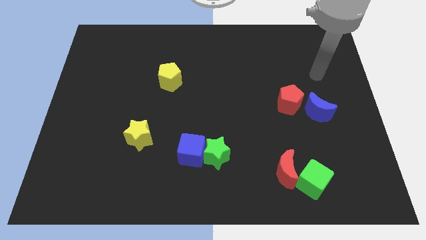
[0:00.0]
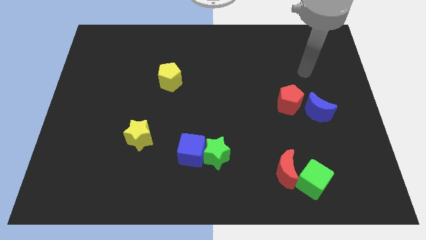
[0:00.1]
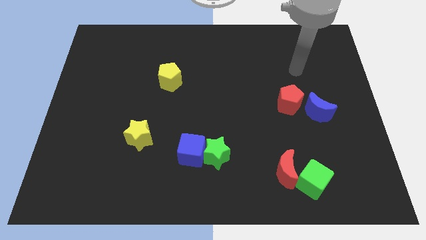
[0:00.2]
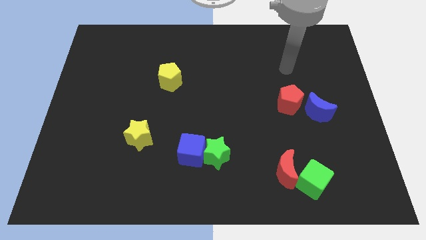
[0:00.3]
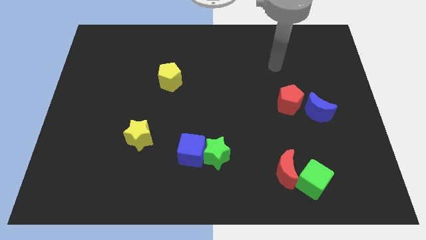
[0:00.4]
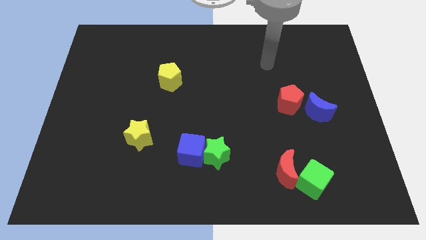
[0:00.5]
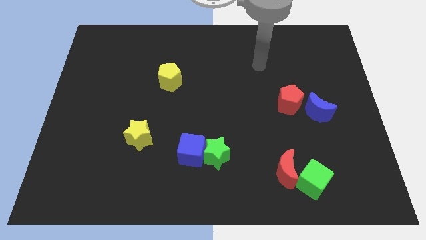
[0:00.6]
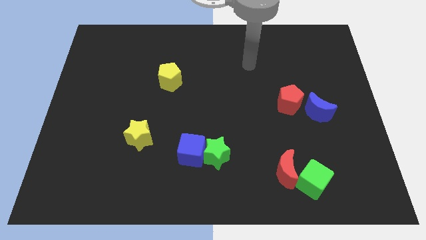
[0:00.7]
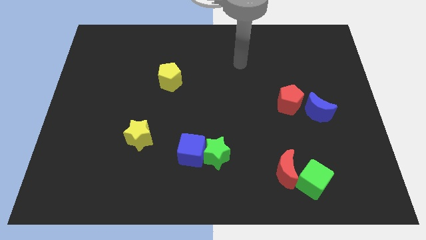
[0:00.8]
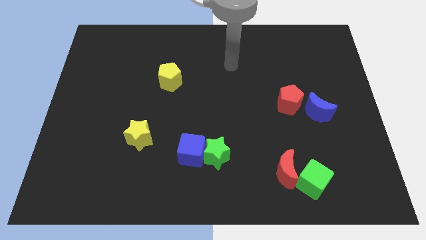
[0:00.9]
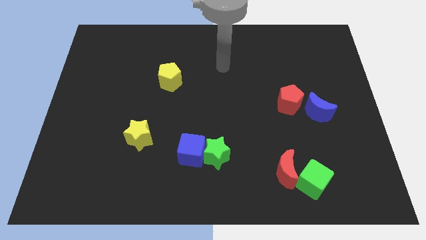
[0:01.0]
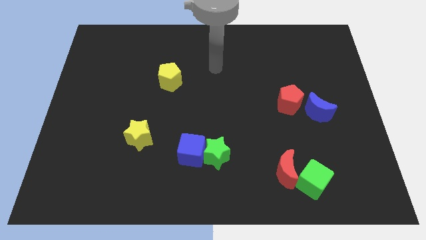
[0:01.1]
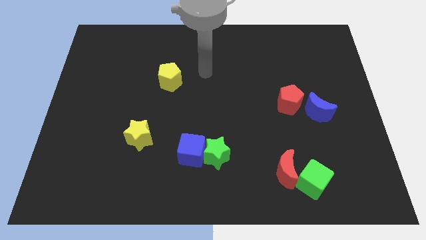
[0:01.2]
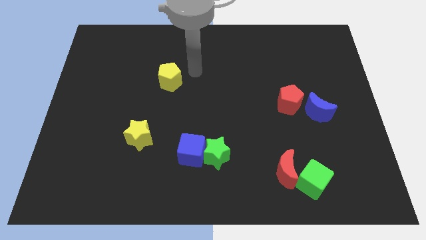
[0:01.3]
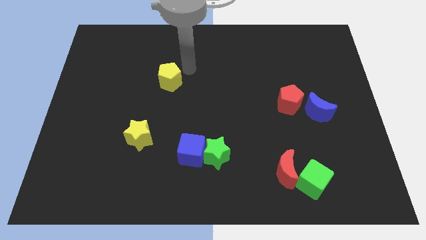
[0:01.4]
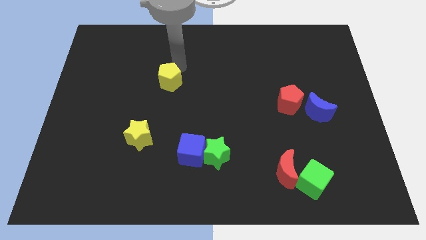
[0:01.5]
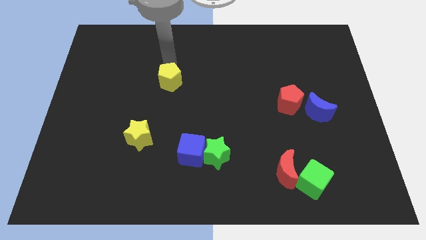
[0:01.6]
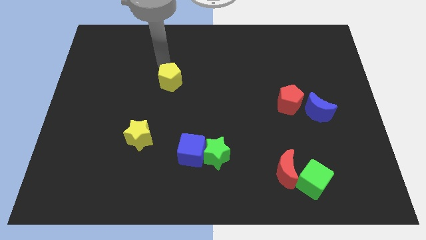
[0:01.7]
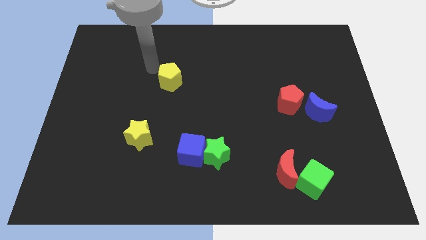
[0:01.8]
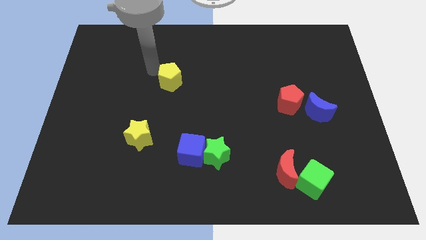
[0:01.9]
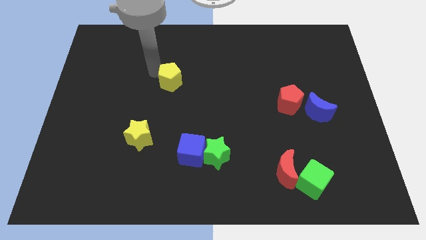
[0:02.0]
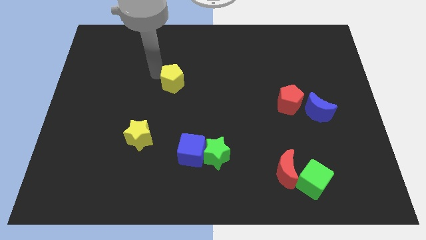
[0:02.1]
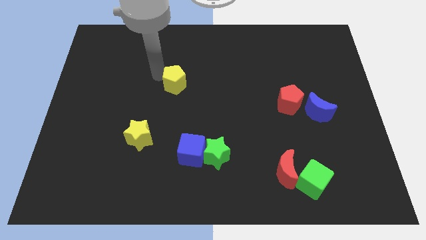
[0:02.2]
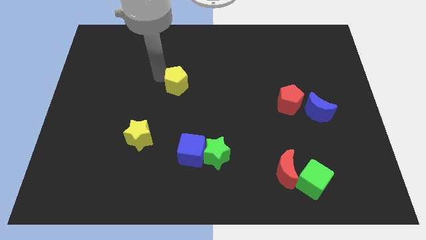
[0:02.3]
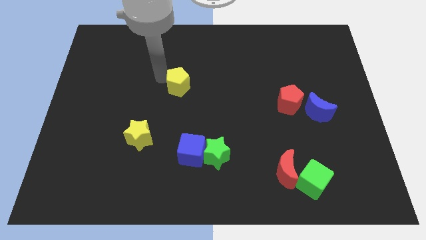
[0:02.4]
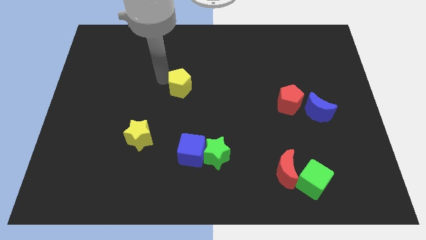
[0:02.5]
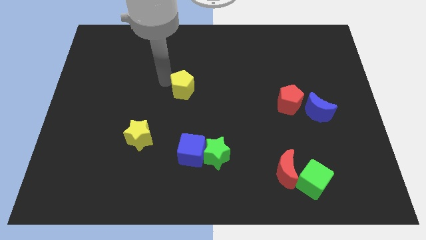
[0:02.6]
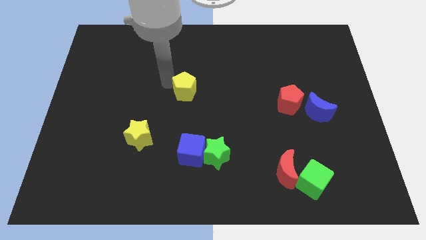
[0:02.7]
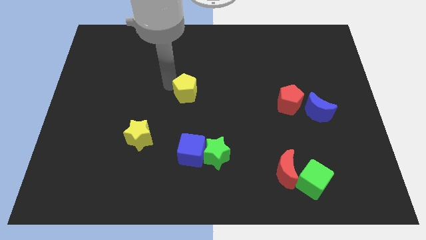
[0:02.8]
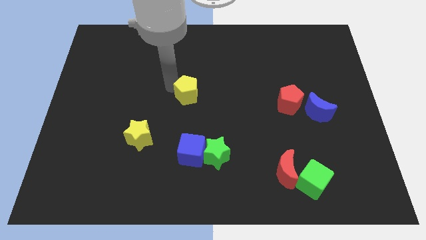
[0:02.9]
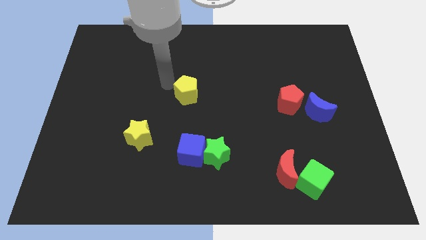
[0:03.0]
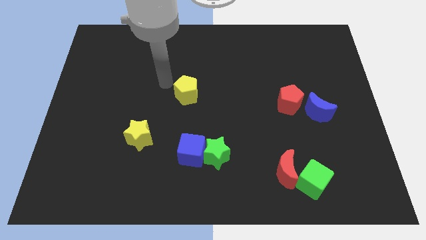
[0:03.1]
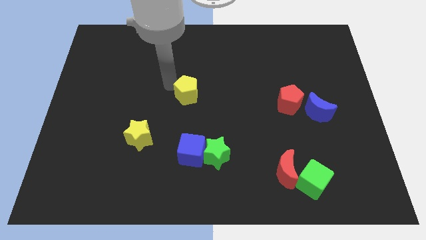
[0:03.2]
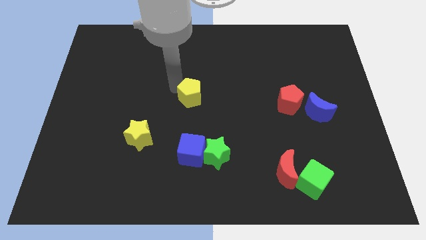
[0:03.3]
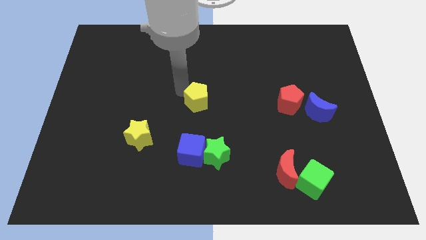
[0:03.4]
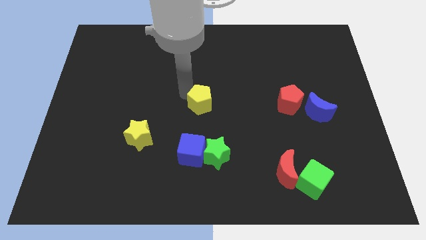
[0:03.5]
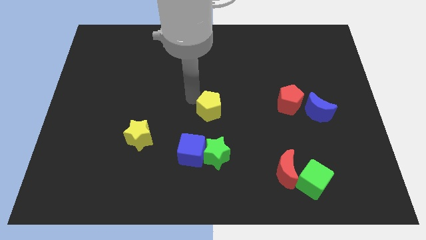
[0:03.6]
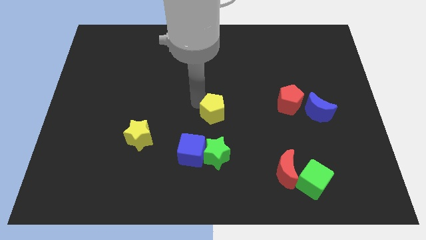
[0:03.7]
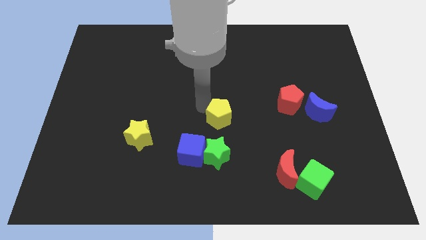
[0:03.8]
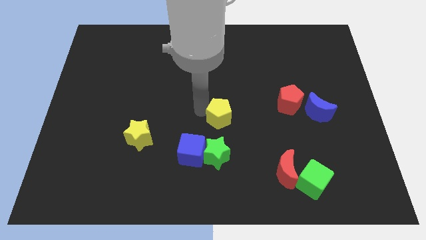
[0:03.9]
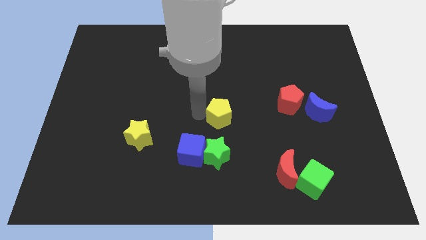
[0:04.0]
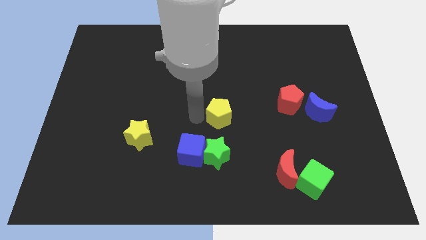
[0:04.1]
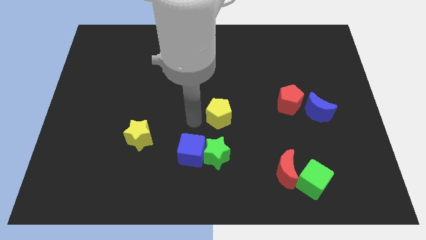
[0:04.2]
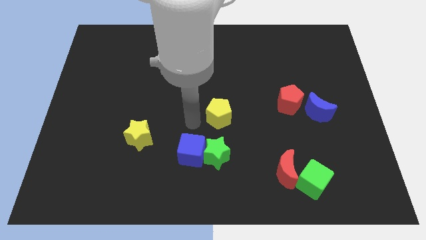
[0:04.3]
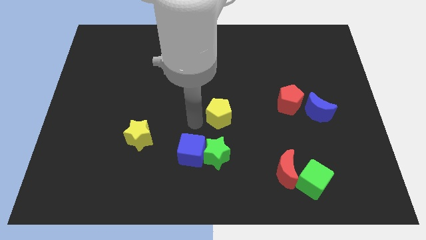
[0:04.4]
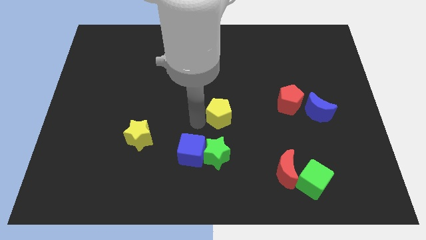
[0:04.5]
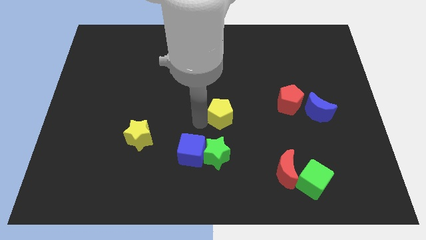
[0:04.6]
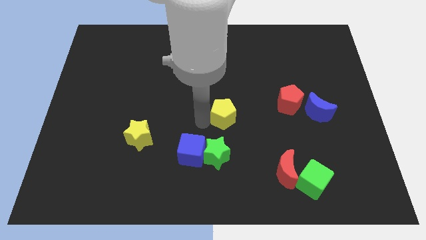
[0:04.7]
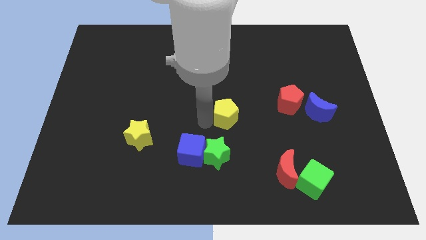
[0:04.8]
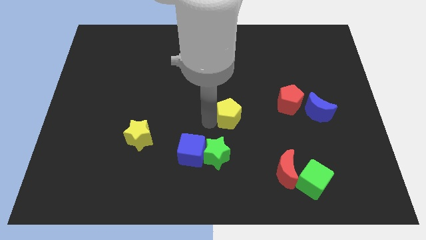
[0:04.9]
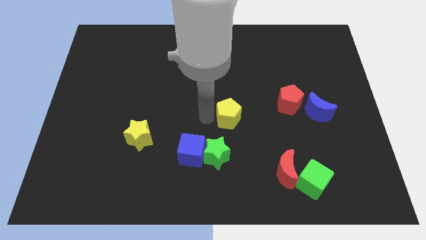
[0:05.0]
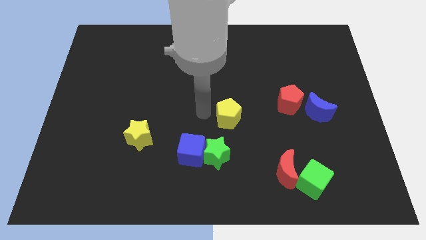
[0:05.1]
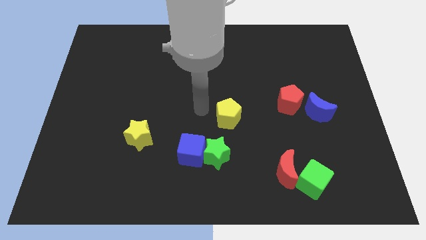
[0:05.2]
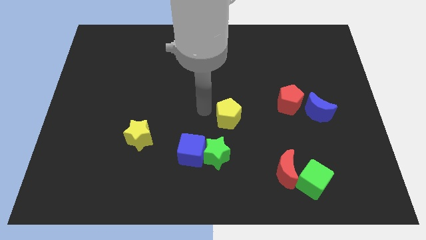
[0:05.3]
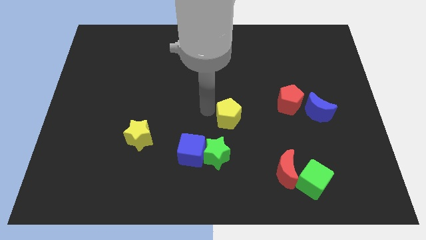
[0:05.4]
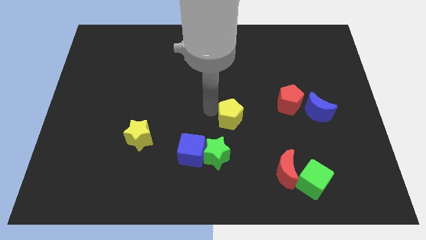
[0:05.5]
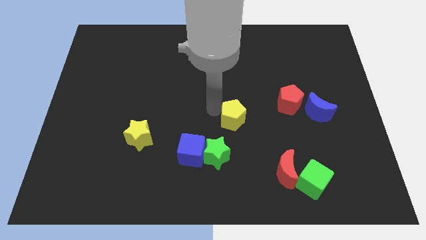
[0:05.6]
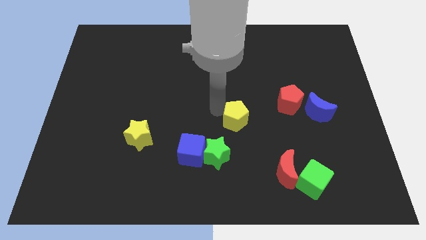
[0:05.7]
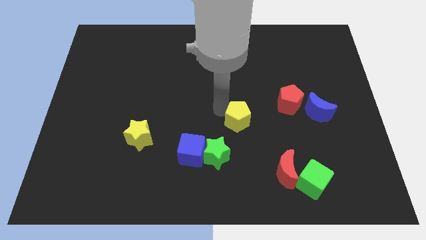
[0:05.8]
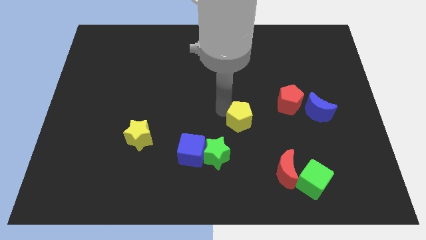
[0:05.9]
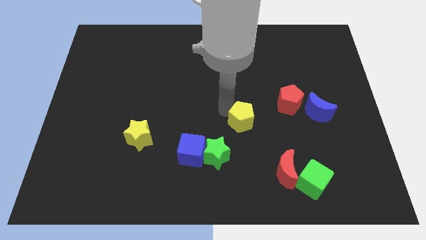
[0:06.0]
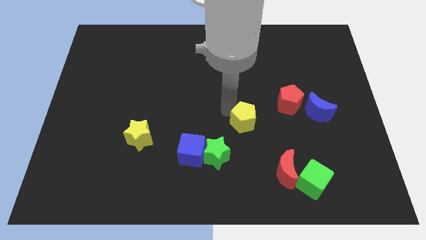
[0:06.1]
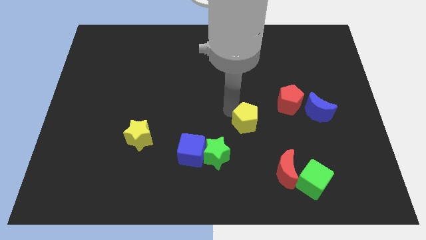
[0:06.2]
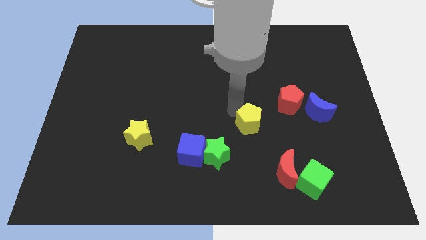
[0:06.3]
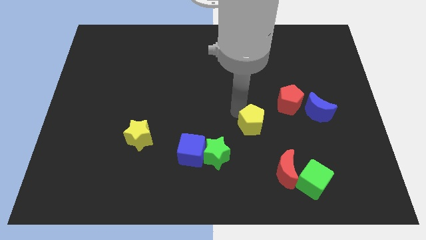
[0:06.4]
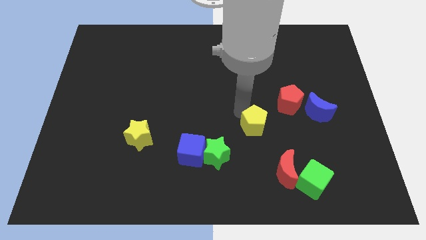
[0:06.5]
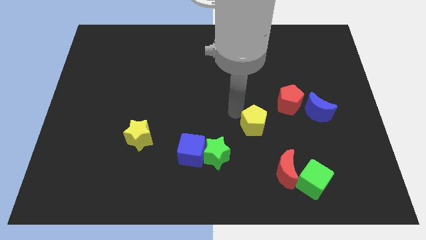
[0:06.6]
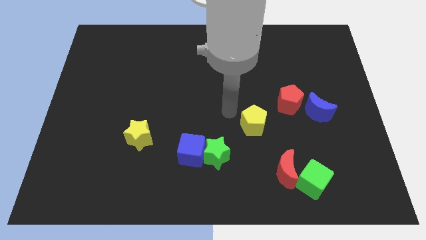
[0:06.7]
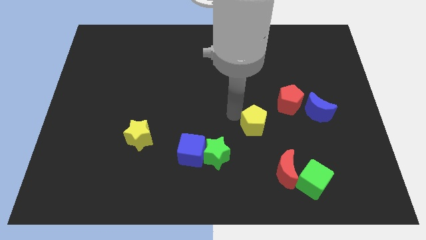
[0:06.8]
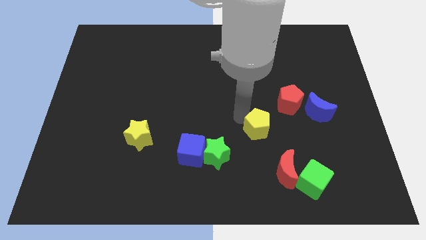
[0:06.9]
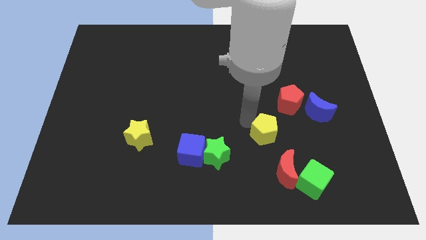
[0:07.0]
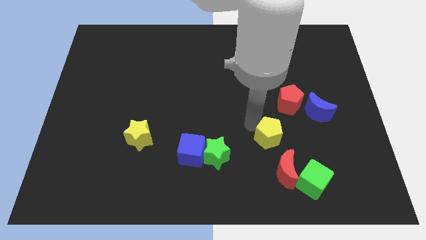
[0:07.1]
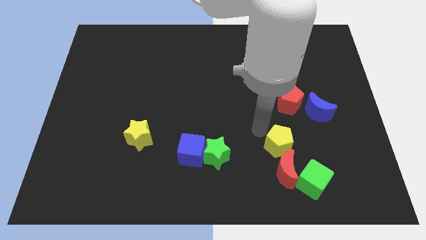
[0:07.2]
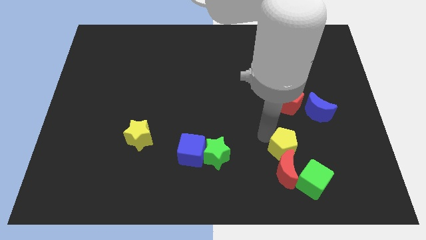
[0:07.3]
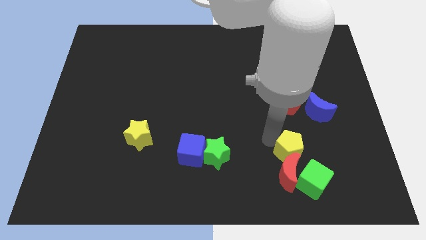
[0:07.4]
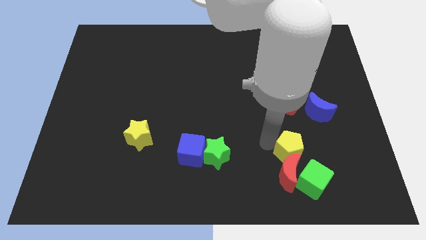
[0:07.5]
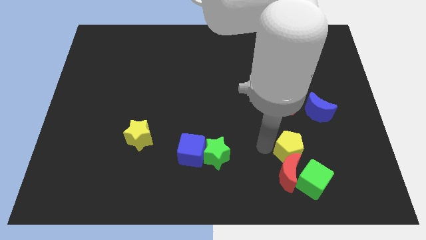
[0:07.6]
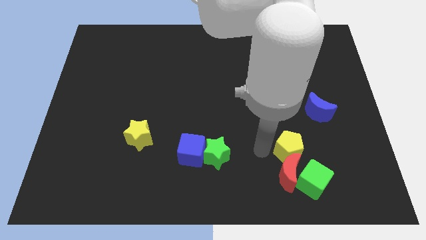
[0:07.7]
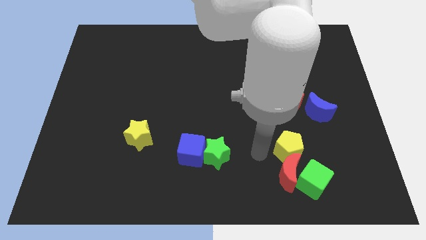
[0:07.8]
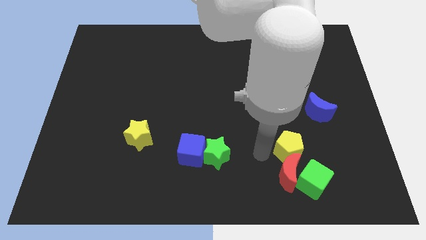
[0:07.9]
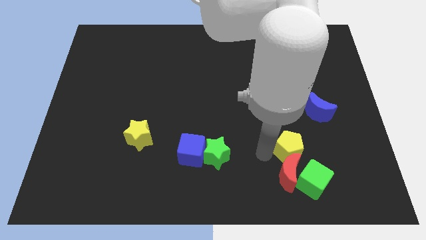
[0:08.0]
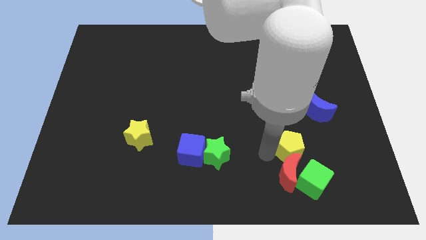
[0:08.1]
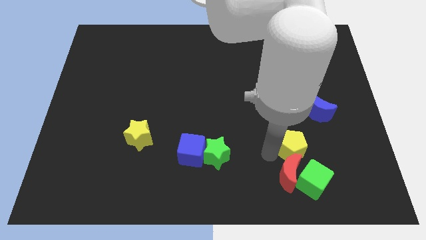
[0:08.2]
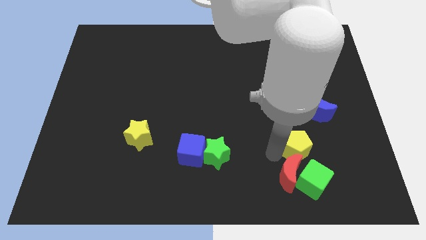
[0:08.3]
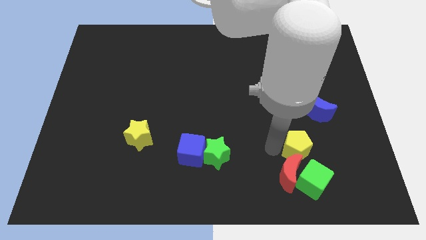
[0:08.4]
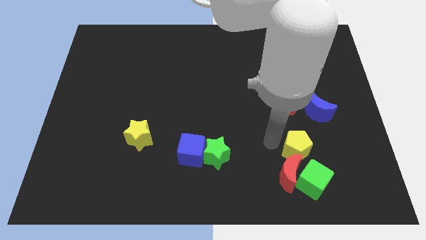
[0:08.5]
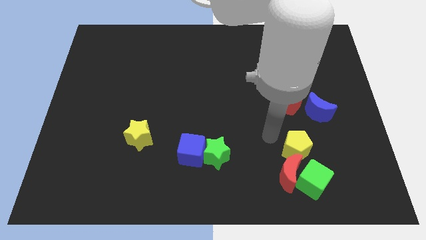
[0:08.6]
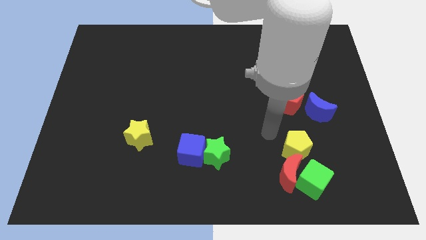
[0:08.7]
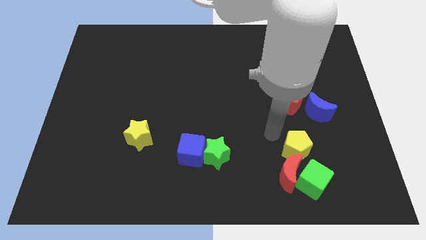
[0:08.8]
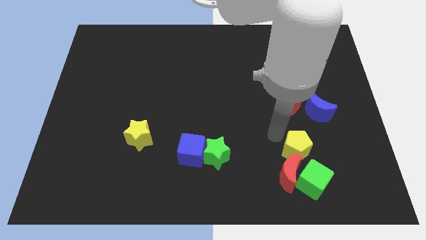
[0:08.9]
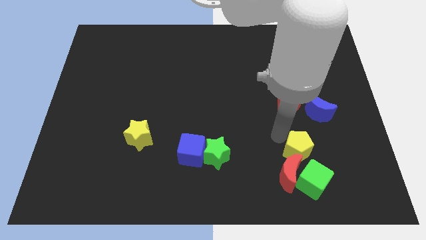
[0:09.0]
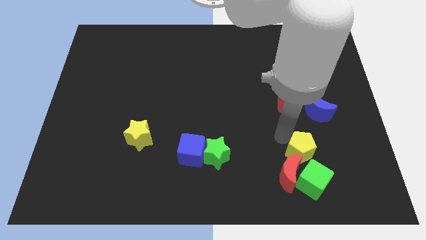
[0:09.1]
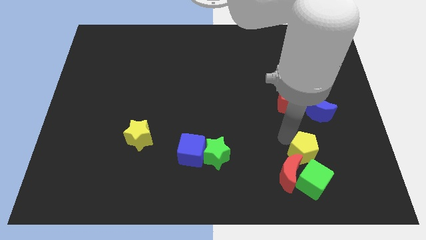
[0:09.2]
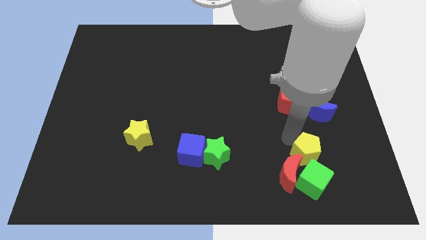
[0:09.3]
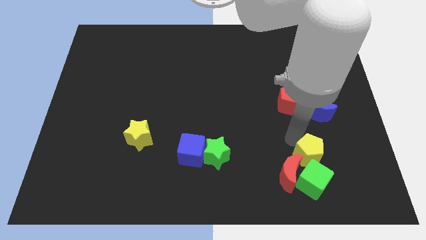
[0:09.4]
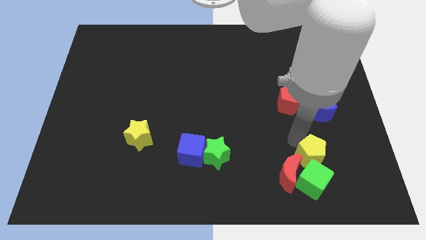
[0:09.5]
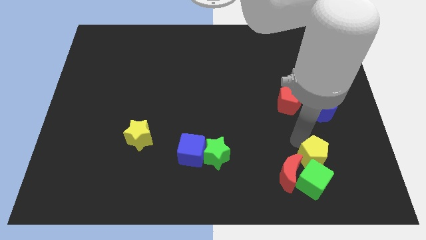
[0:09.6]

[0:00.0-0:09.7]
put the yellow pentagon to the green cube
